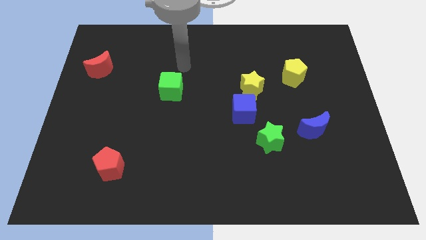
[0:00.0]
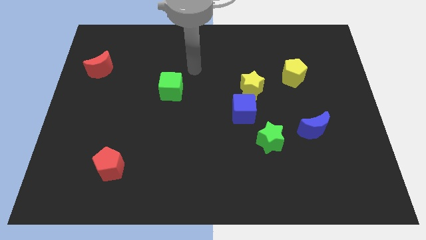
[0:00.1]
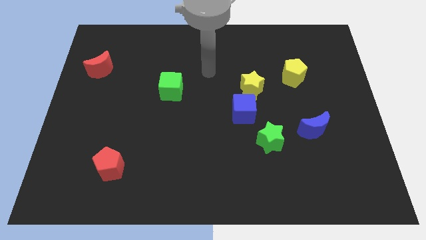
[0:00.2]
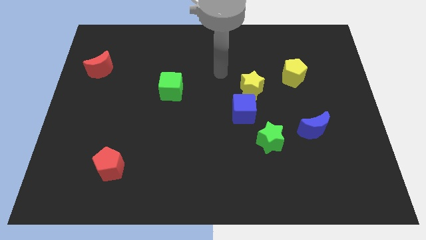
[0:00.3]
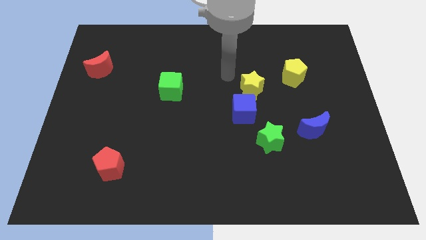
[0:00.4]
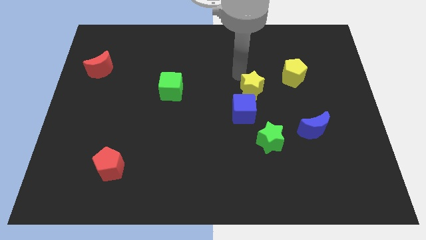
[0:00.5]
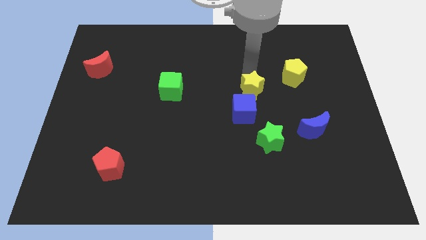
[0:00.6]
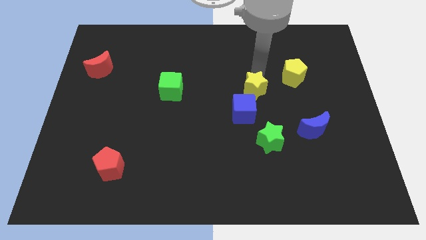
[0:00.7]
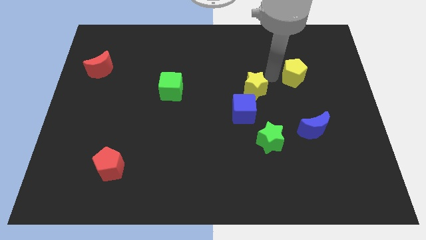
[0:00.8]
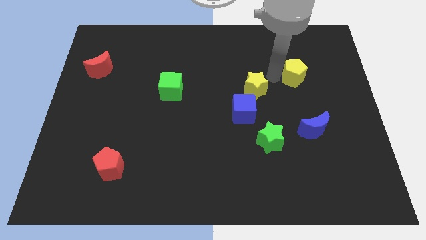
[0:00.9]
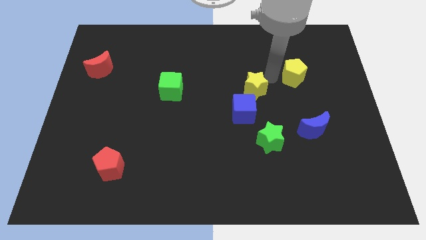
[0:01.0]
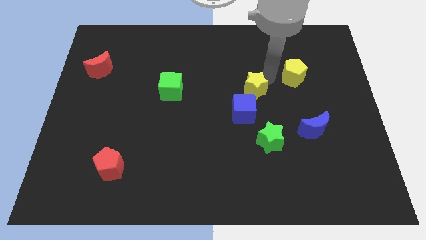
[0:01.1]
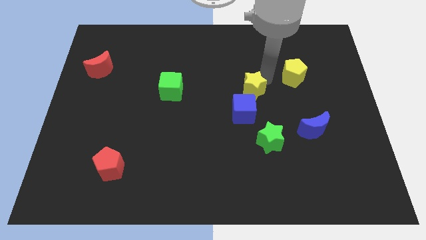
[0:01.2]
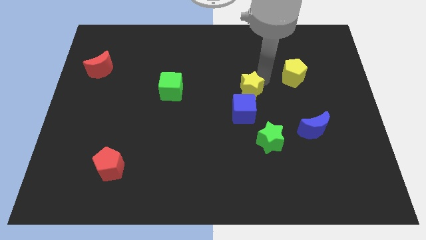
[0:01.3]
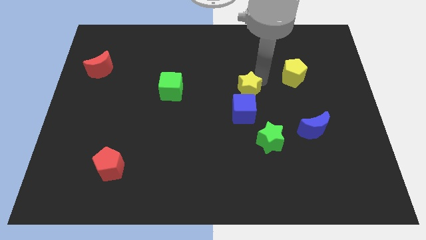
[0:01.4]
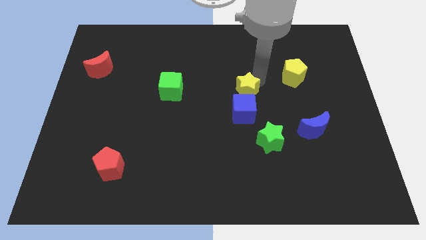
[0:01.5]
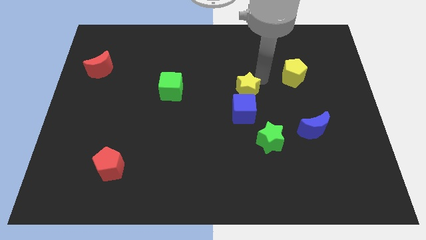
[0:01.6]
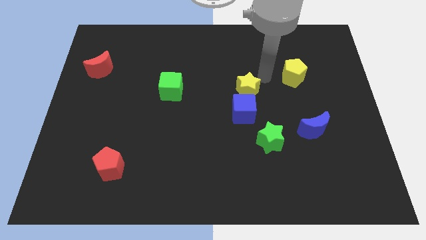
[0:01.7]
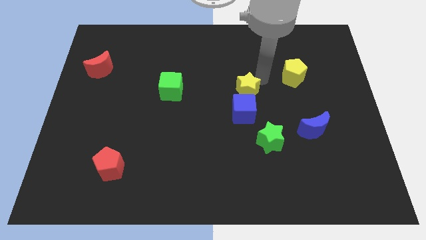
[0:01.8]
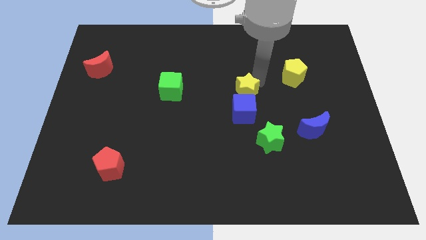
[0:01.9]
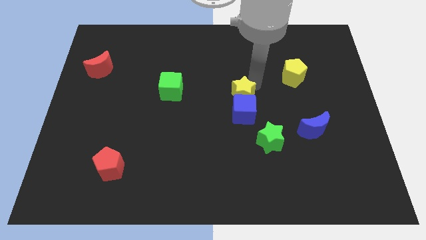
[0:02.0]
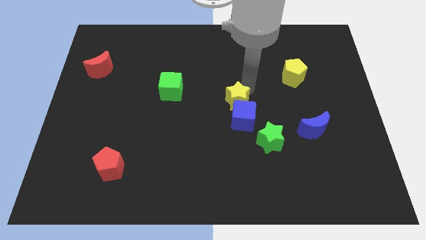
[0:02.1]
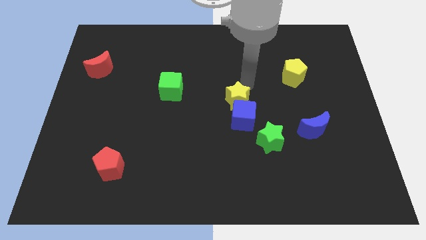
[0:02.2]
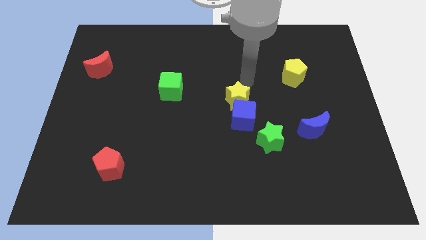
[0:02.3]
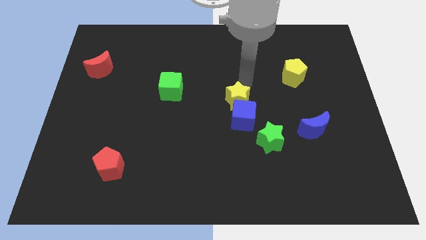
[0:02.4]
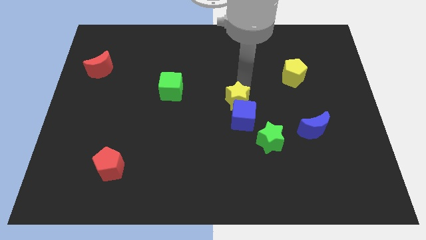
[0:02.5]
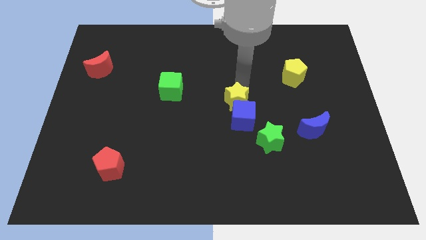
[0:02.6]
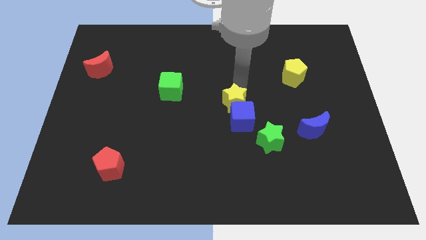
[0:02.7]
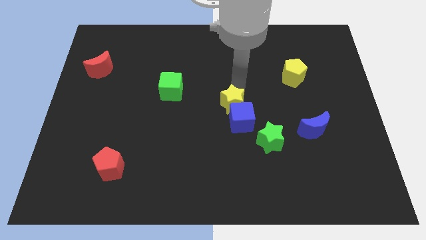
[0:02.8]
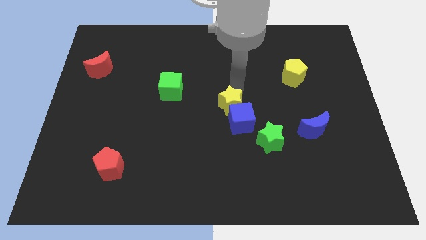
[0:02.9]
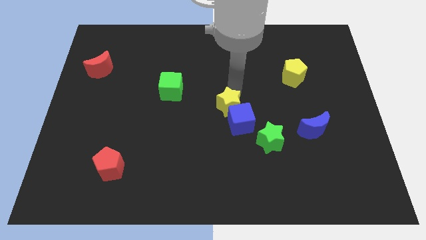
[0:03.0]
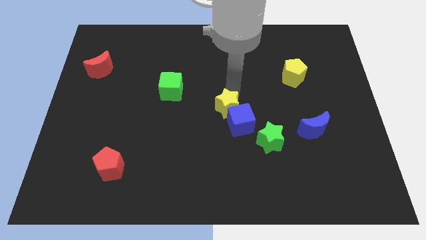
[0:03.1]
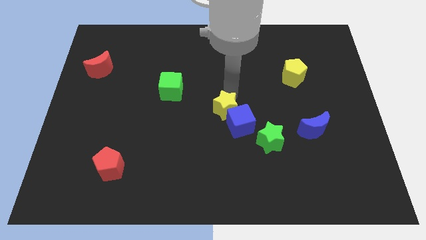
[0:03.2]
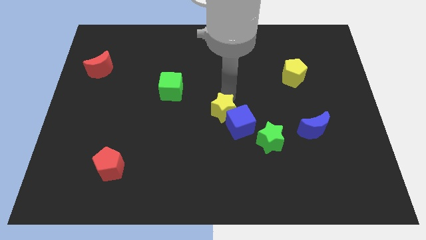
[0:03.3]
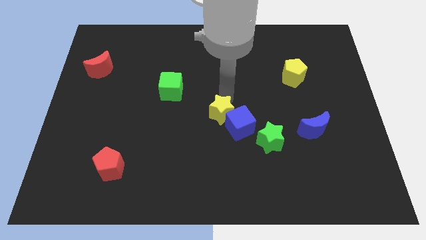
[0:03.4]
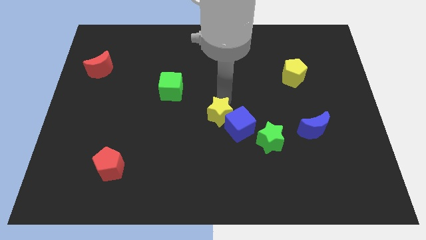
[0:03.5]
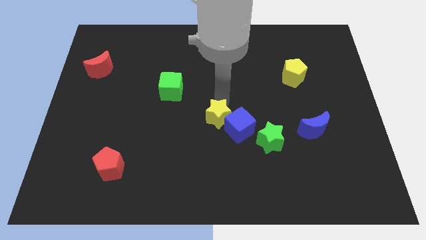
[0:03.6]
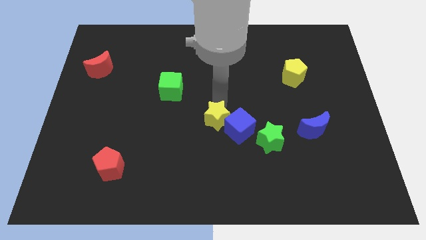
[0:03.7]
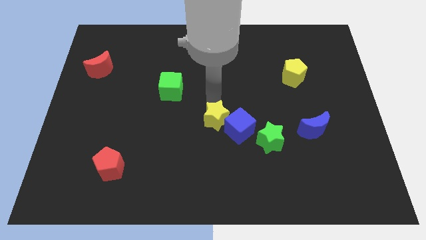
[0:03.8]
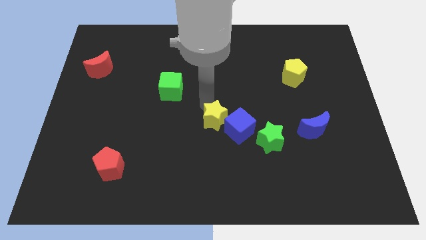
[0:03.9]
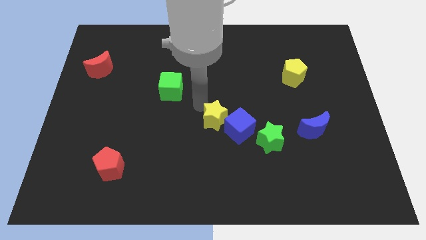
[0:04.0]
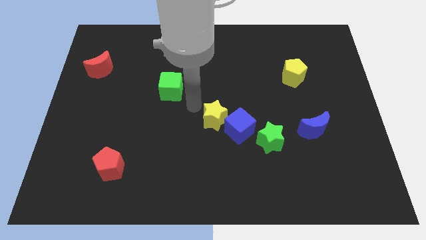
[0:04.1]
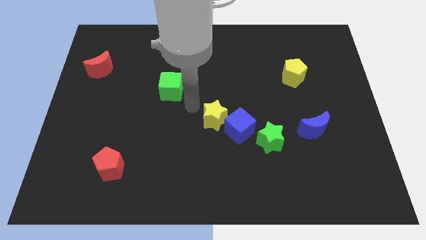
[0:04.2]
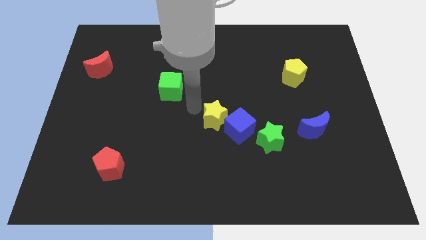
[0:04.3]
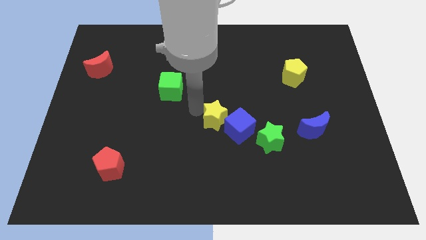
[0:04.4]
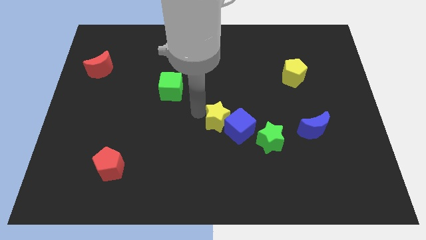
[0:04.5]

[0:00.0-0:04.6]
slightly slide the yellow star downwards

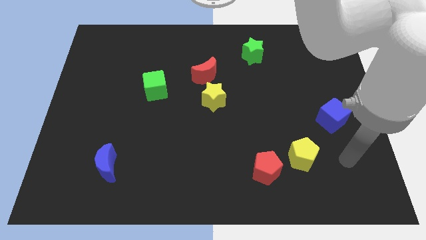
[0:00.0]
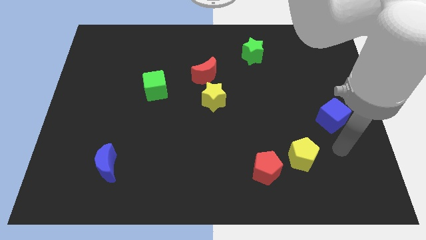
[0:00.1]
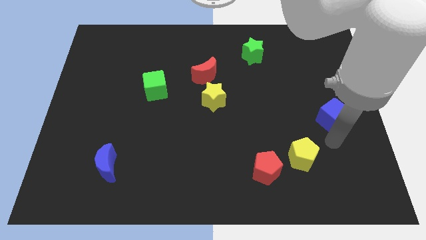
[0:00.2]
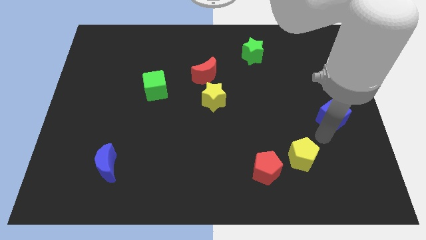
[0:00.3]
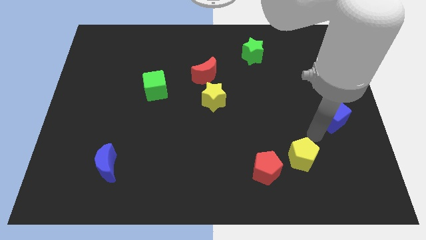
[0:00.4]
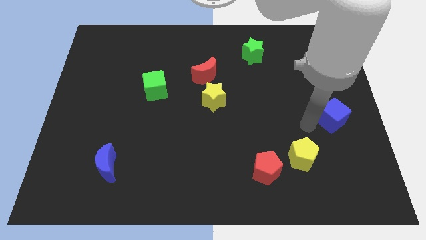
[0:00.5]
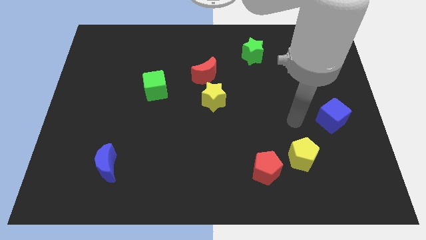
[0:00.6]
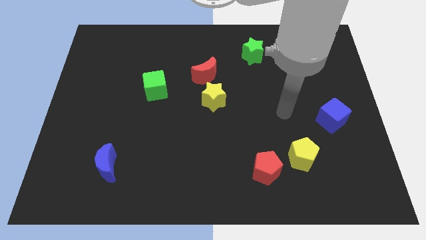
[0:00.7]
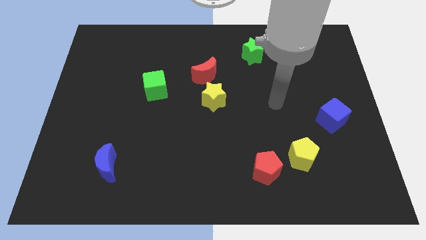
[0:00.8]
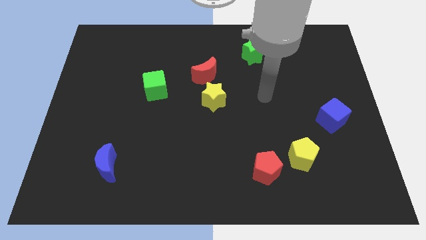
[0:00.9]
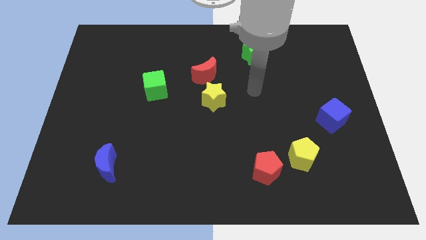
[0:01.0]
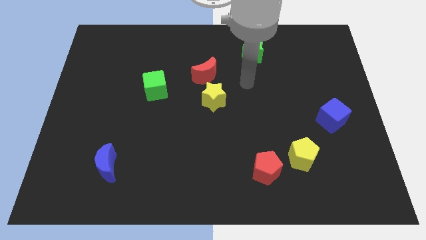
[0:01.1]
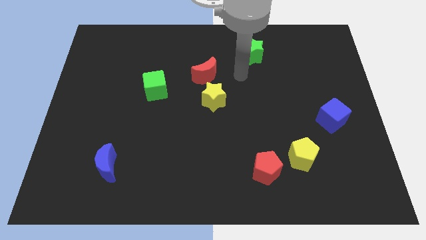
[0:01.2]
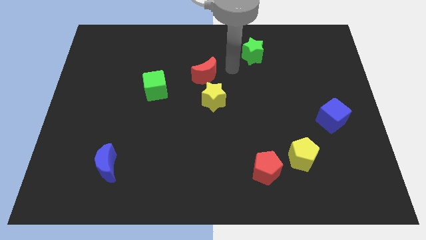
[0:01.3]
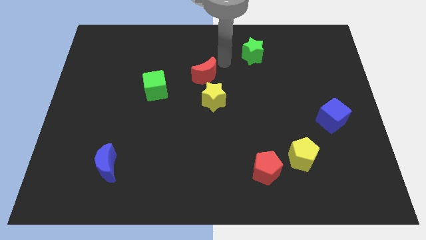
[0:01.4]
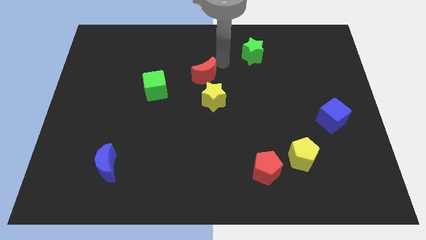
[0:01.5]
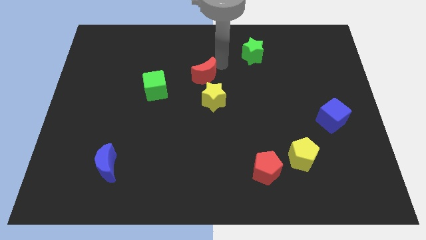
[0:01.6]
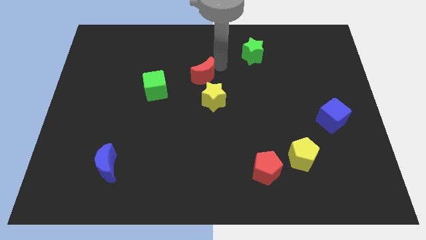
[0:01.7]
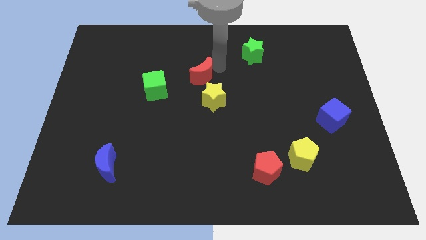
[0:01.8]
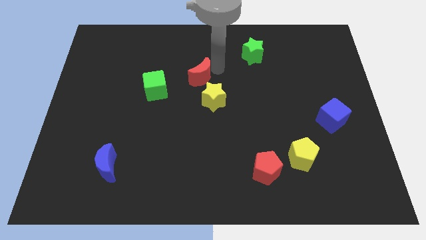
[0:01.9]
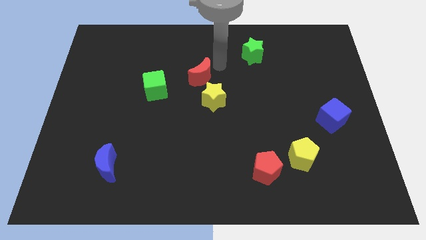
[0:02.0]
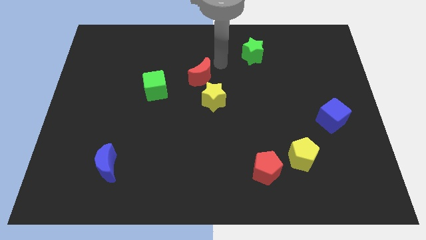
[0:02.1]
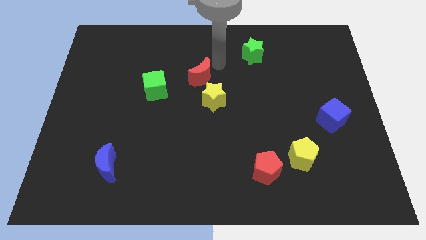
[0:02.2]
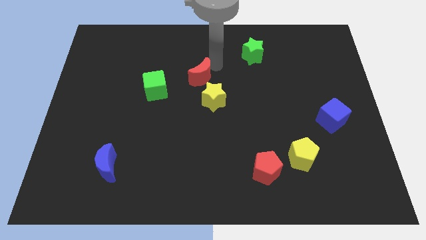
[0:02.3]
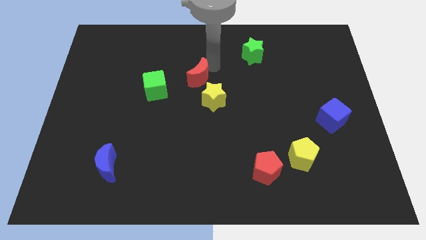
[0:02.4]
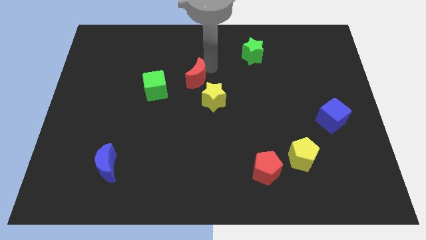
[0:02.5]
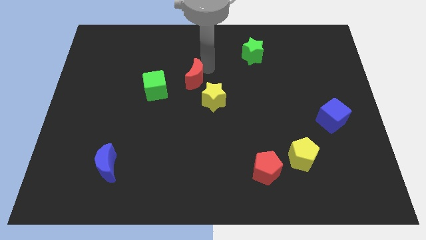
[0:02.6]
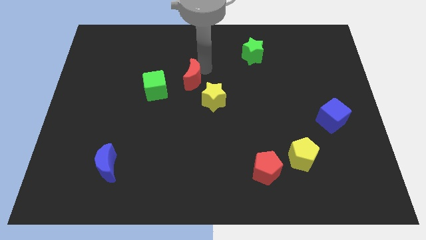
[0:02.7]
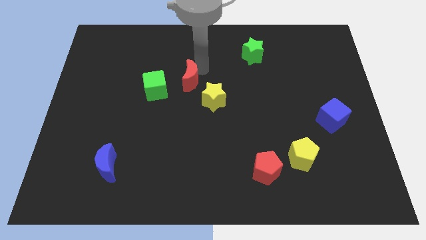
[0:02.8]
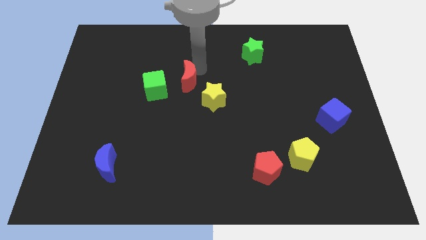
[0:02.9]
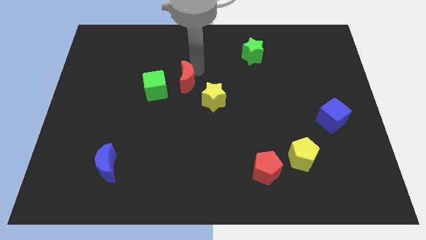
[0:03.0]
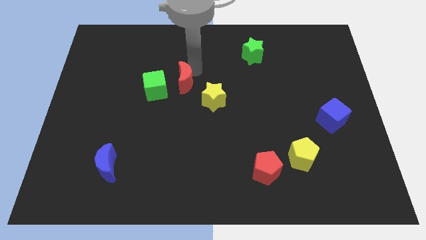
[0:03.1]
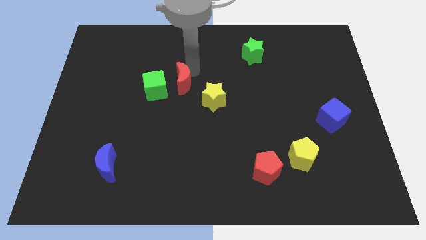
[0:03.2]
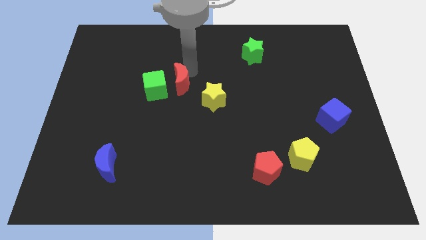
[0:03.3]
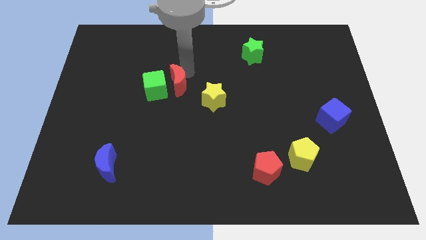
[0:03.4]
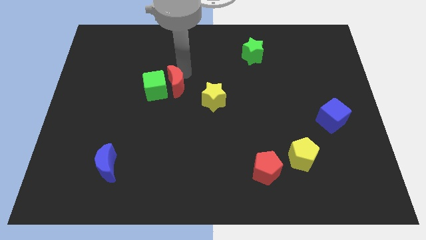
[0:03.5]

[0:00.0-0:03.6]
push the red moon down and to the left diagonally slightly
